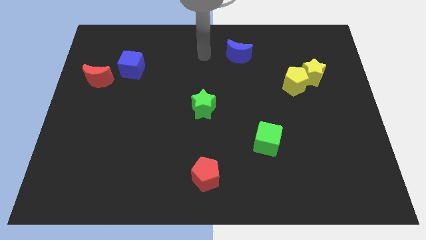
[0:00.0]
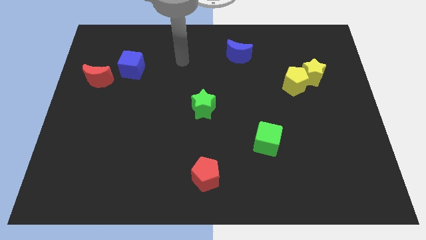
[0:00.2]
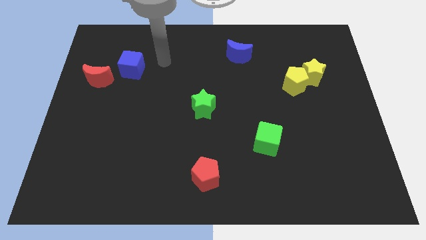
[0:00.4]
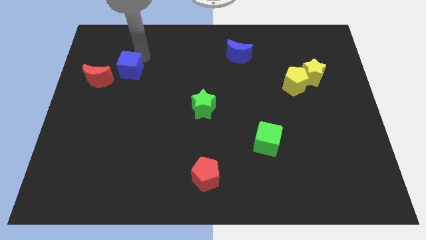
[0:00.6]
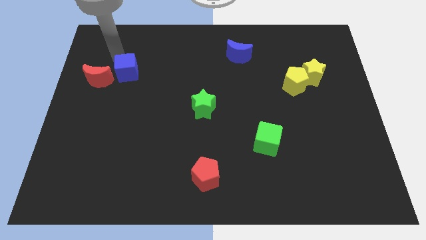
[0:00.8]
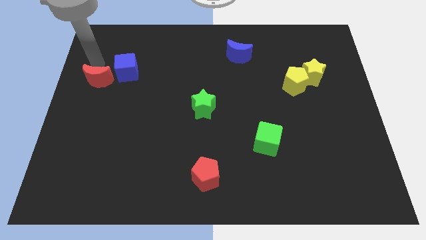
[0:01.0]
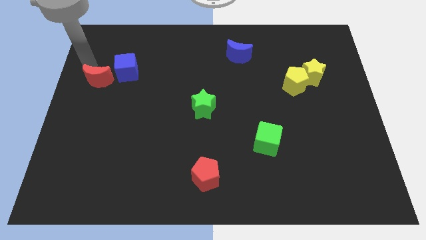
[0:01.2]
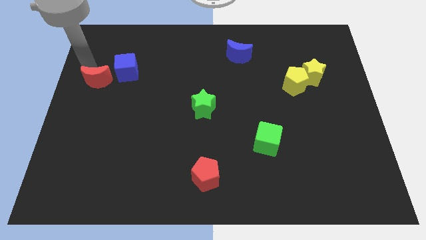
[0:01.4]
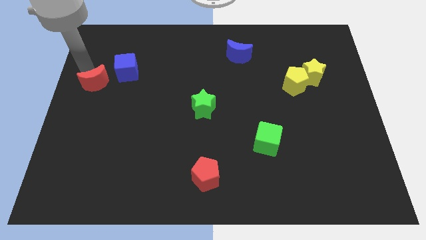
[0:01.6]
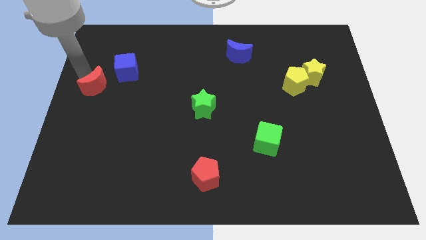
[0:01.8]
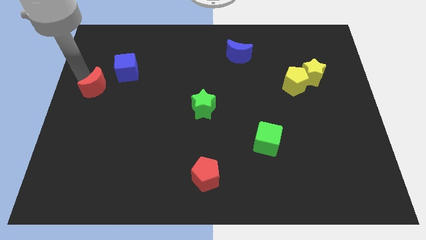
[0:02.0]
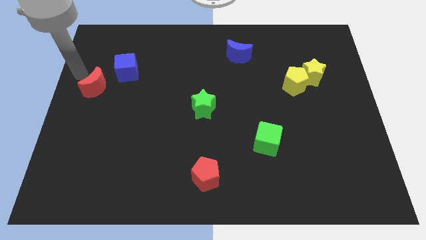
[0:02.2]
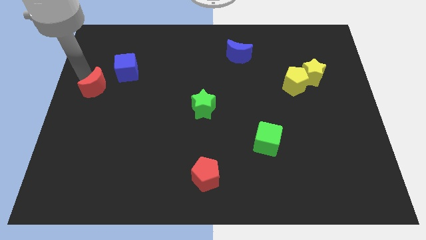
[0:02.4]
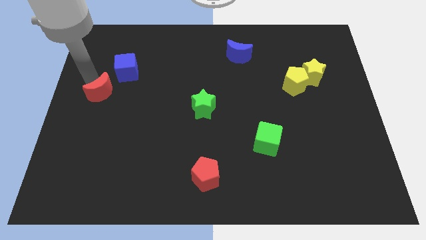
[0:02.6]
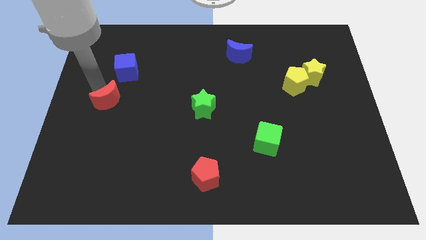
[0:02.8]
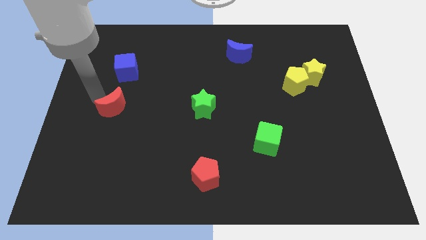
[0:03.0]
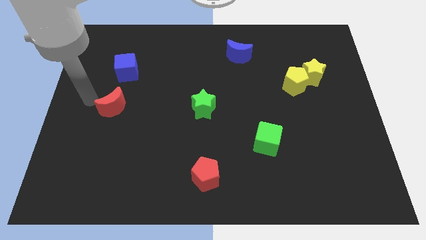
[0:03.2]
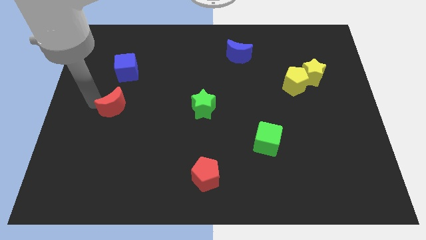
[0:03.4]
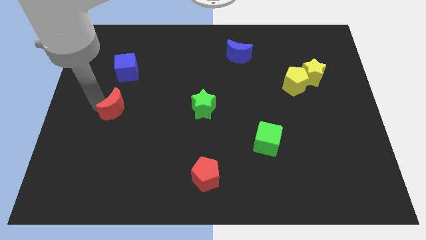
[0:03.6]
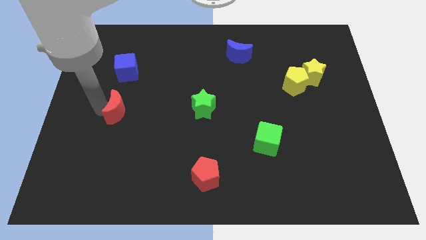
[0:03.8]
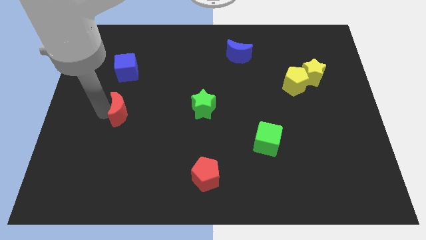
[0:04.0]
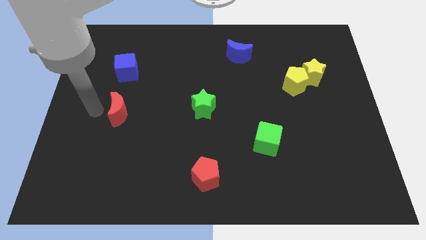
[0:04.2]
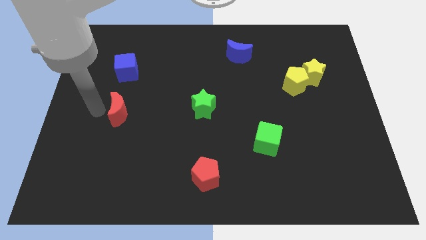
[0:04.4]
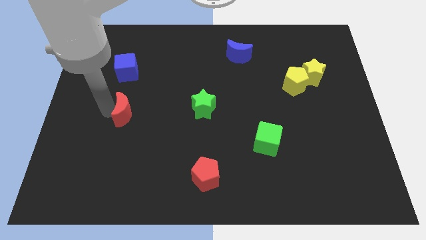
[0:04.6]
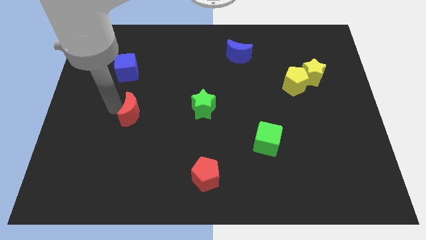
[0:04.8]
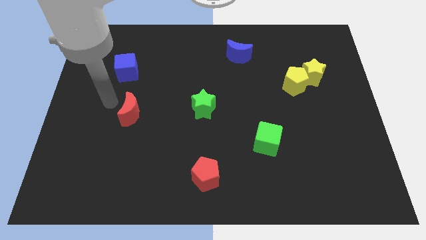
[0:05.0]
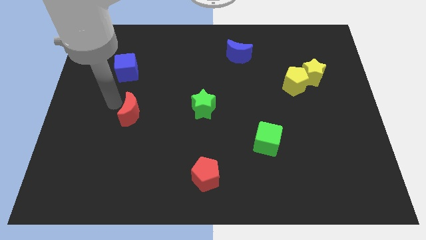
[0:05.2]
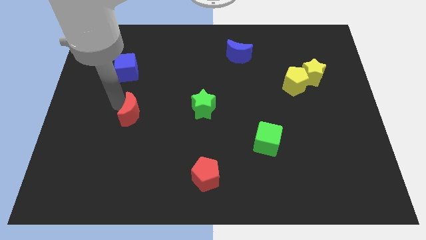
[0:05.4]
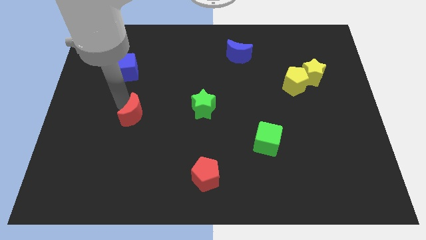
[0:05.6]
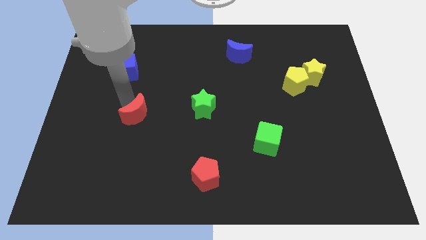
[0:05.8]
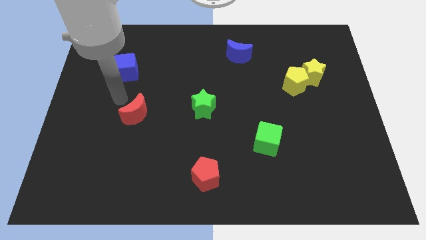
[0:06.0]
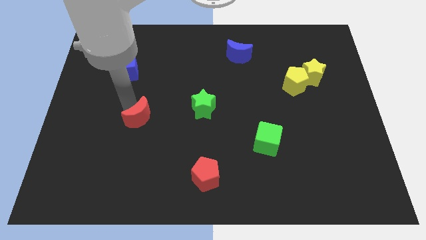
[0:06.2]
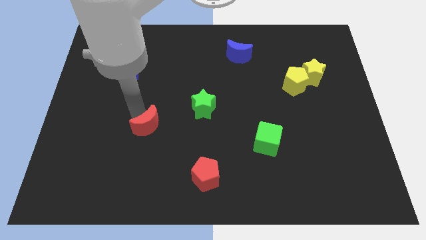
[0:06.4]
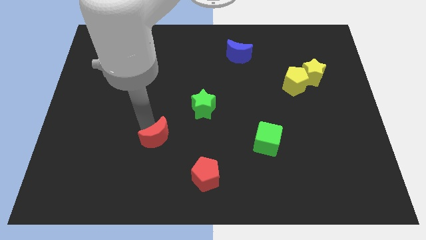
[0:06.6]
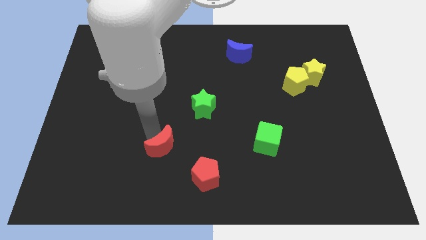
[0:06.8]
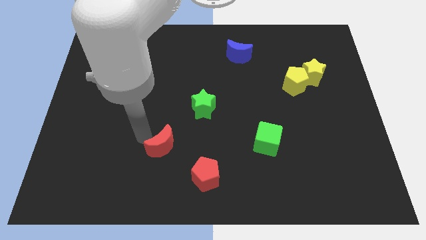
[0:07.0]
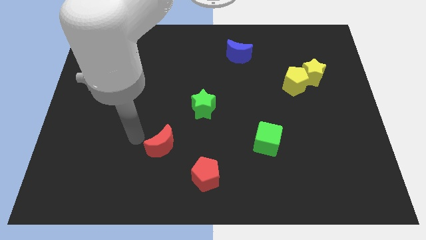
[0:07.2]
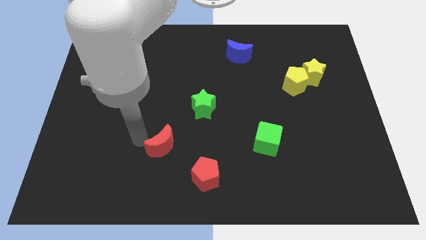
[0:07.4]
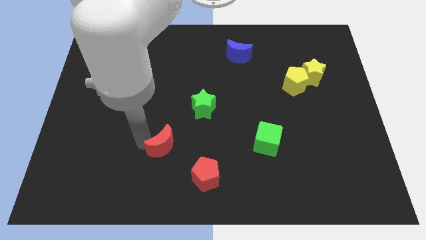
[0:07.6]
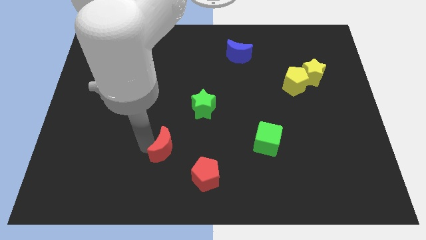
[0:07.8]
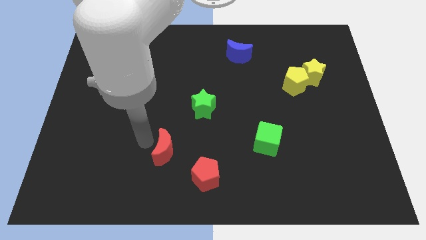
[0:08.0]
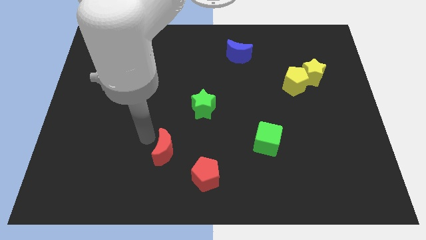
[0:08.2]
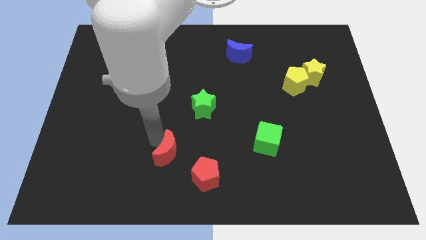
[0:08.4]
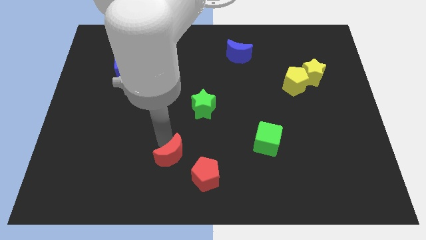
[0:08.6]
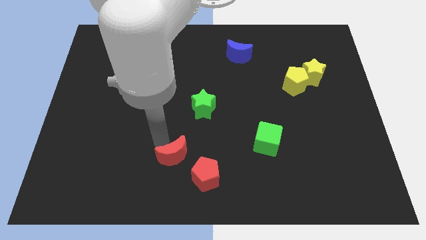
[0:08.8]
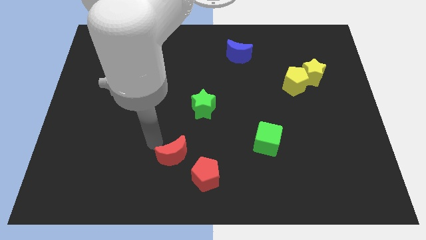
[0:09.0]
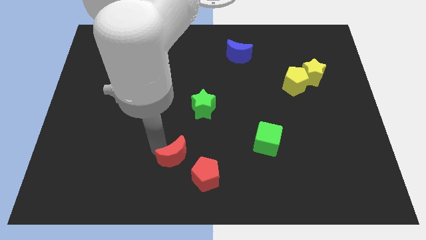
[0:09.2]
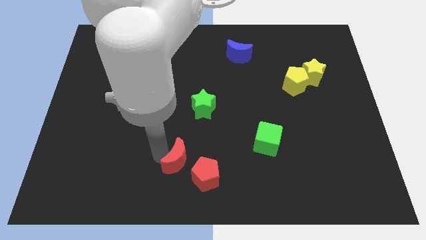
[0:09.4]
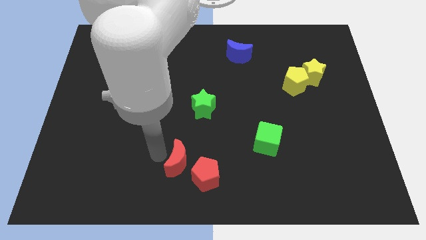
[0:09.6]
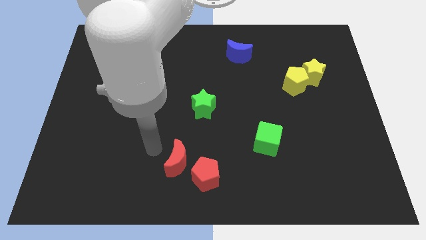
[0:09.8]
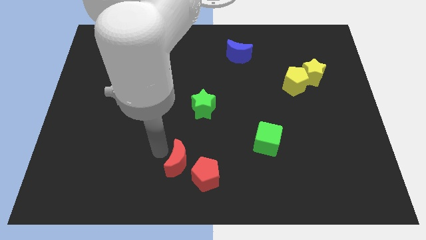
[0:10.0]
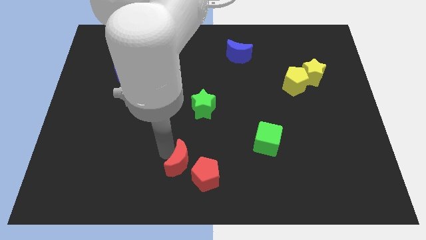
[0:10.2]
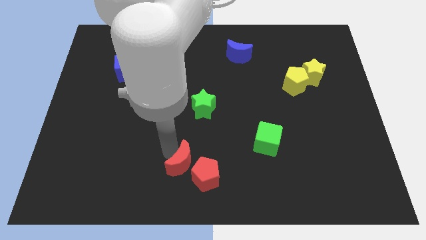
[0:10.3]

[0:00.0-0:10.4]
slide the red moon to the red pentagon
